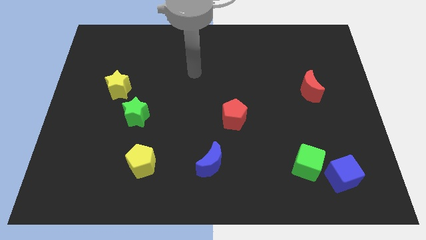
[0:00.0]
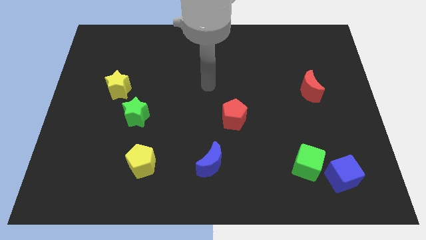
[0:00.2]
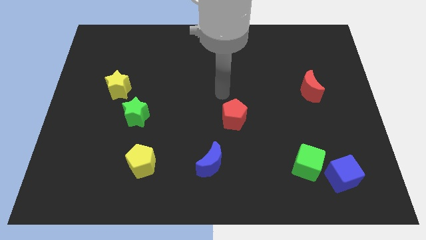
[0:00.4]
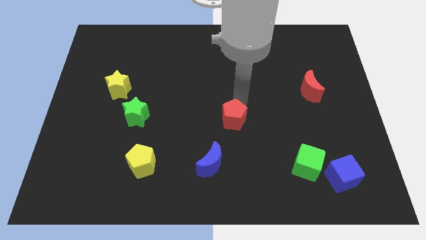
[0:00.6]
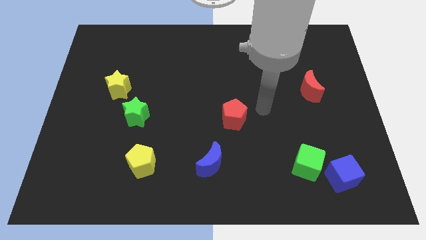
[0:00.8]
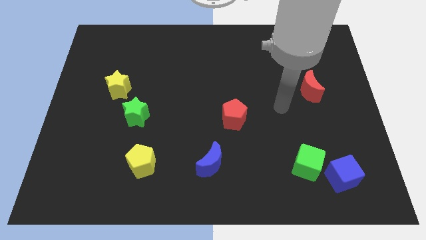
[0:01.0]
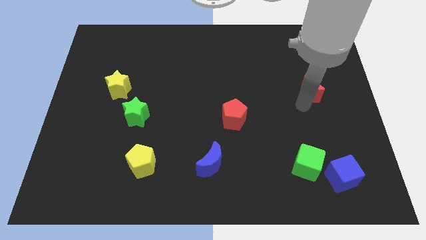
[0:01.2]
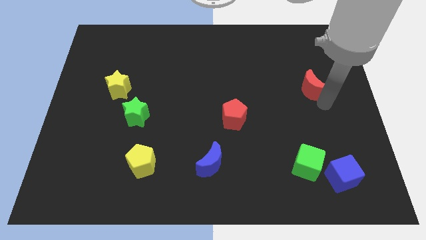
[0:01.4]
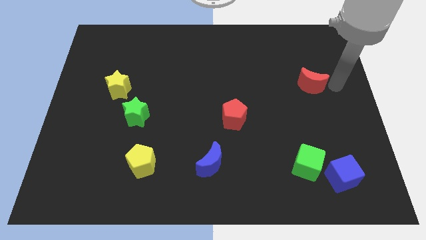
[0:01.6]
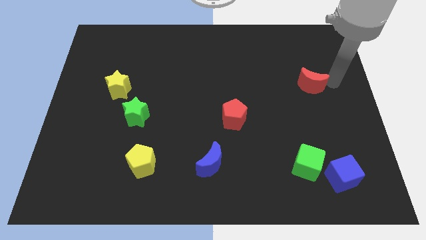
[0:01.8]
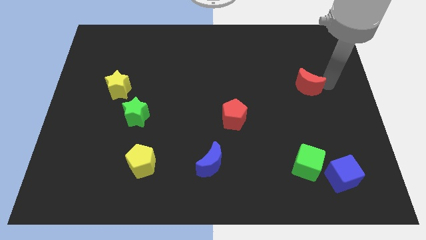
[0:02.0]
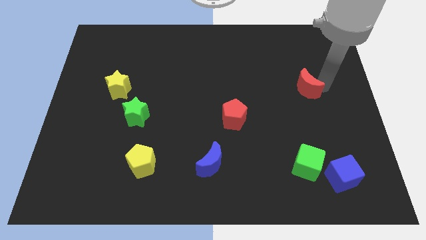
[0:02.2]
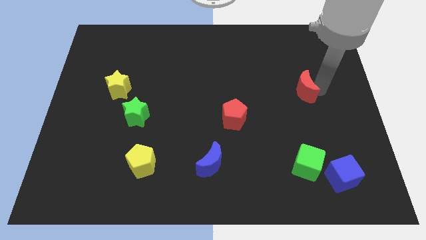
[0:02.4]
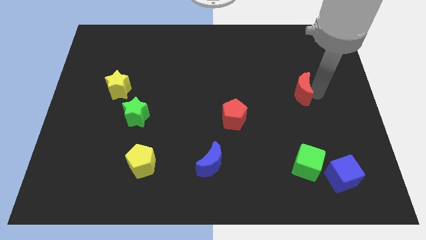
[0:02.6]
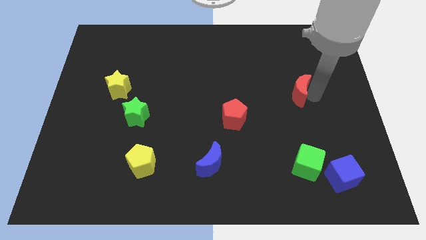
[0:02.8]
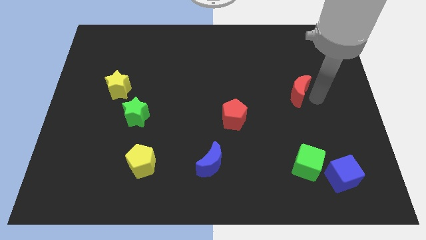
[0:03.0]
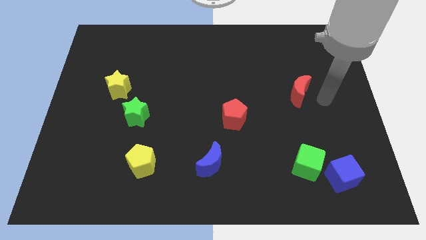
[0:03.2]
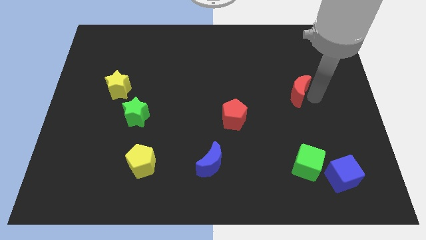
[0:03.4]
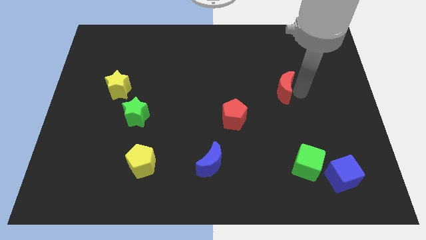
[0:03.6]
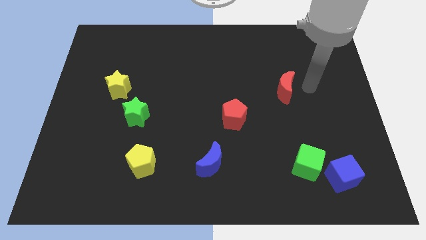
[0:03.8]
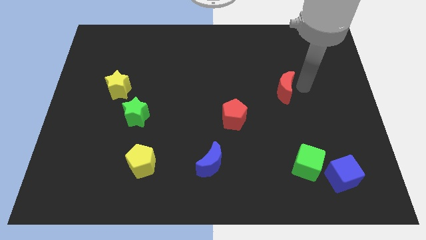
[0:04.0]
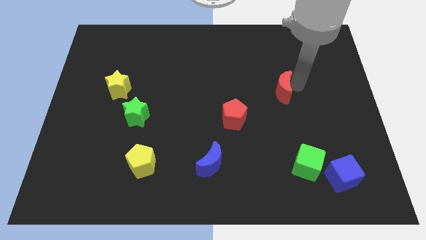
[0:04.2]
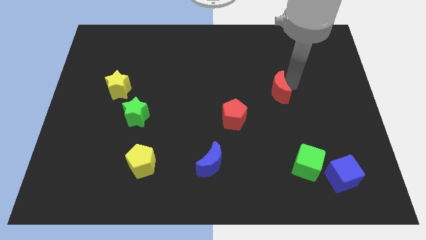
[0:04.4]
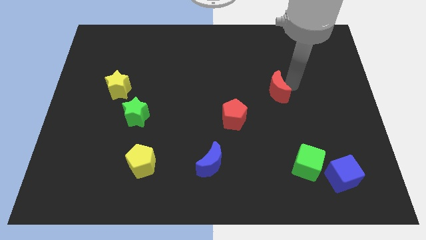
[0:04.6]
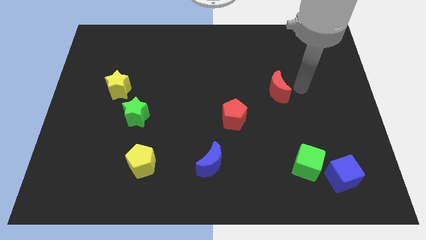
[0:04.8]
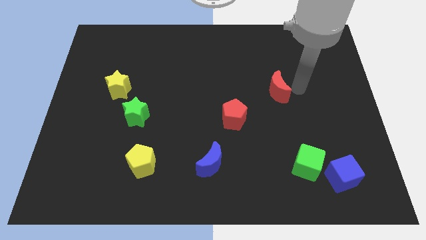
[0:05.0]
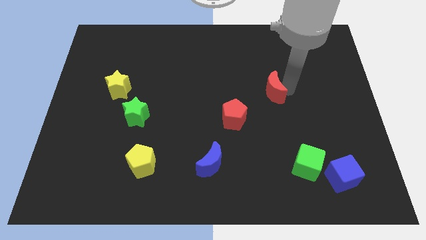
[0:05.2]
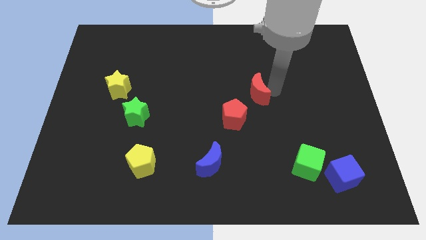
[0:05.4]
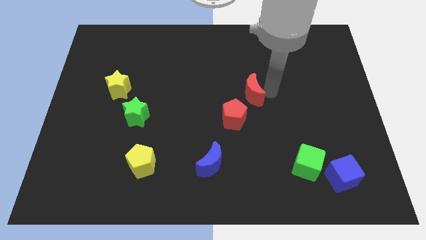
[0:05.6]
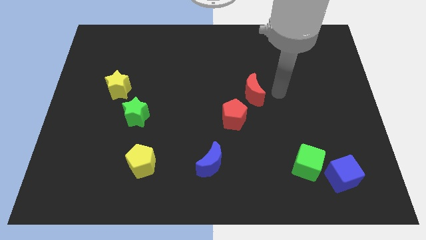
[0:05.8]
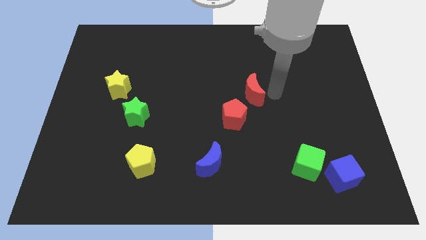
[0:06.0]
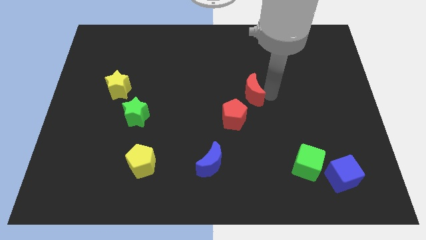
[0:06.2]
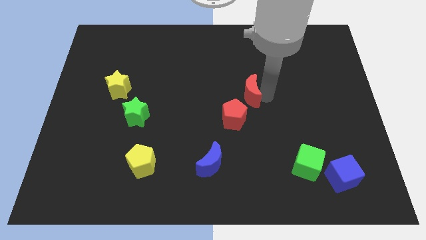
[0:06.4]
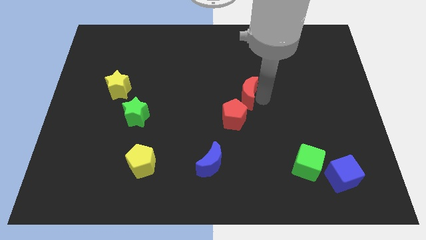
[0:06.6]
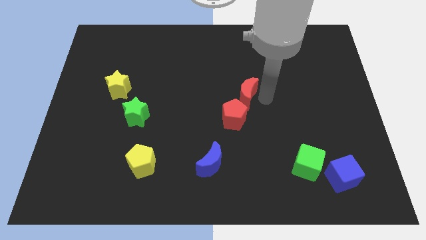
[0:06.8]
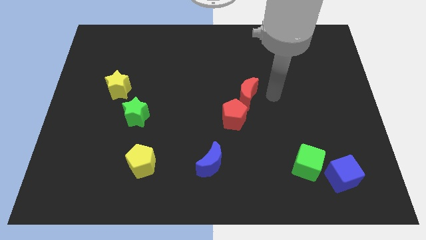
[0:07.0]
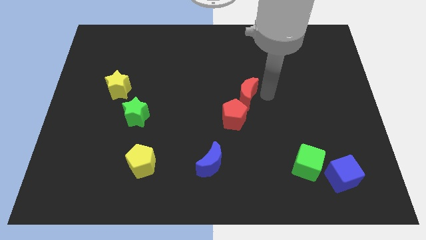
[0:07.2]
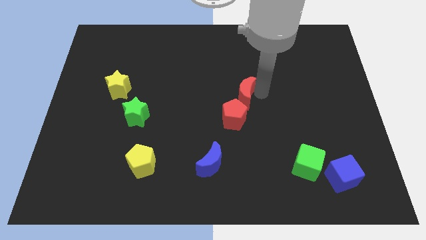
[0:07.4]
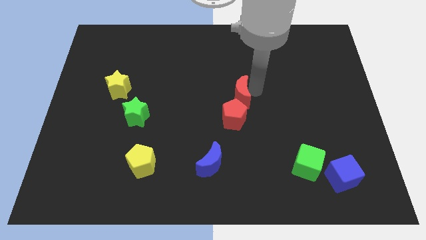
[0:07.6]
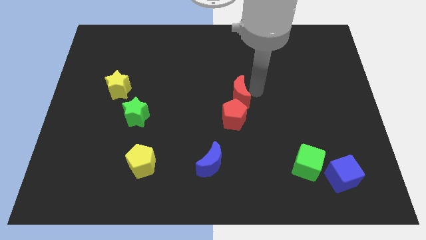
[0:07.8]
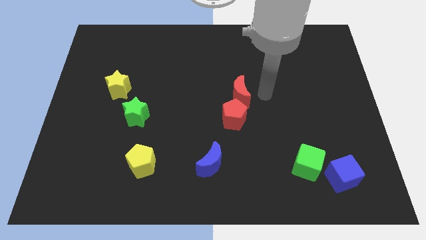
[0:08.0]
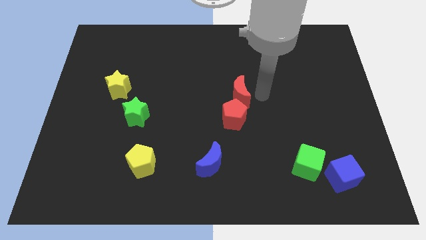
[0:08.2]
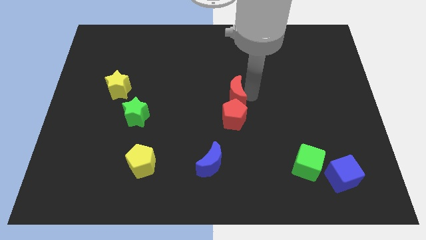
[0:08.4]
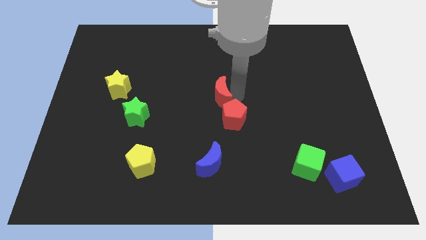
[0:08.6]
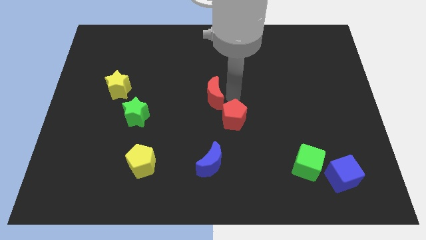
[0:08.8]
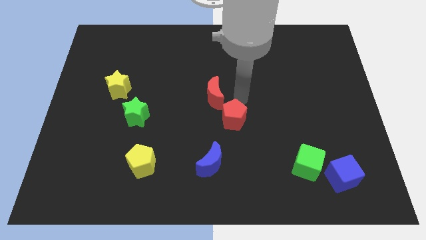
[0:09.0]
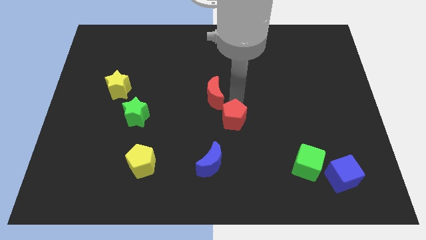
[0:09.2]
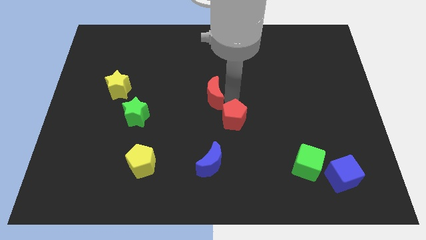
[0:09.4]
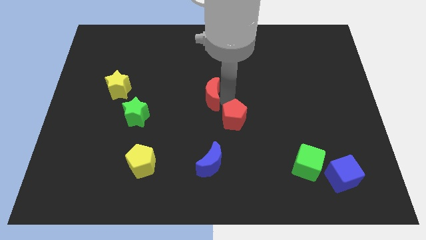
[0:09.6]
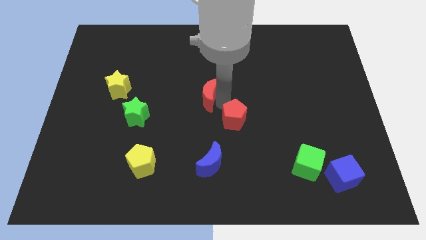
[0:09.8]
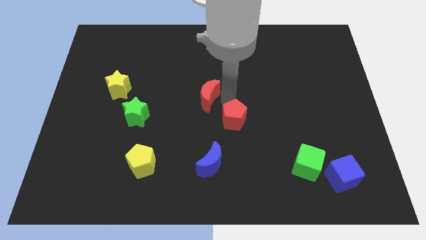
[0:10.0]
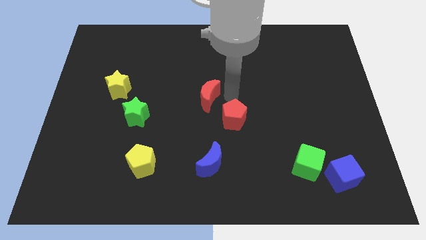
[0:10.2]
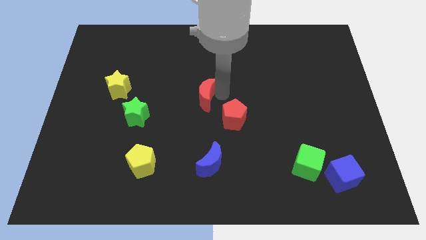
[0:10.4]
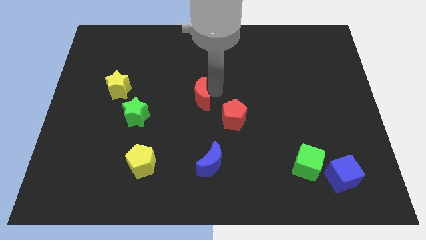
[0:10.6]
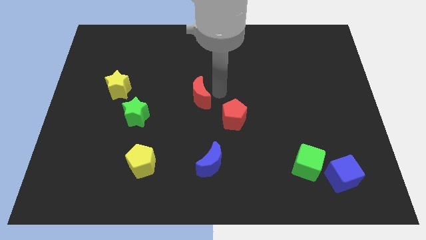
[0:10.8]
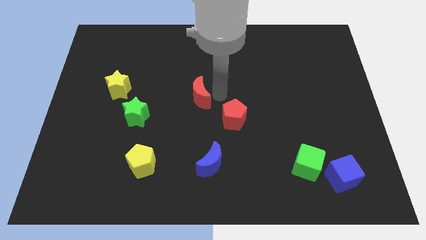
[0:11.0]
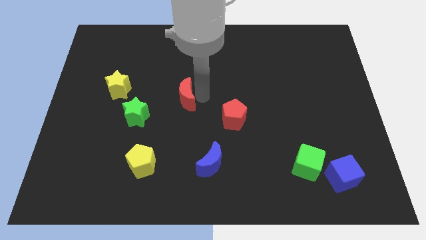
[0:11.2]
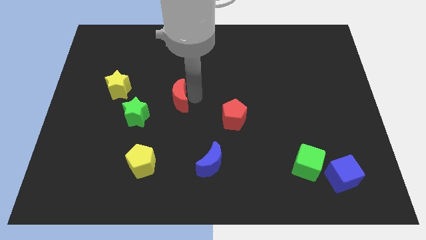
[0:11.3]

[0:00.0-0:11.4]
put the red moon to the top right of the green star

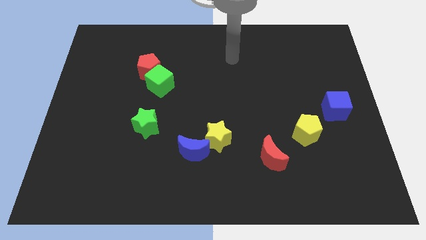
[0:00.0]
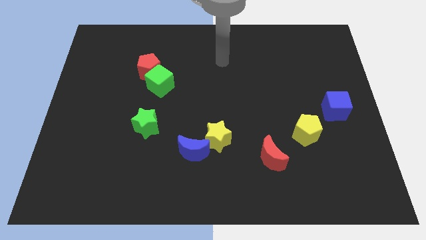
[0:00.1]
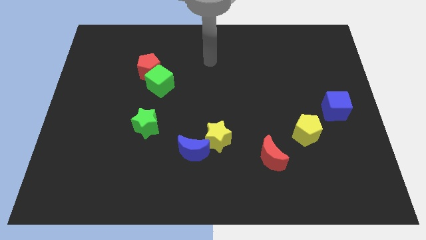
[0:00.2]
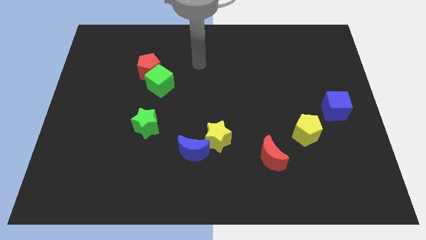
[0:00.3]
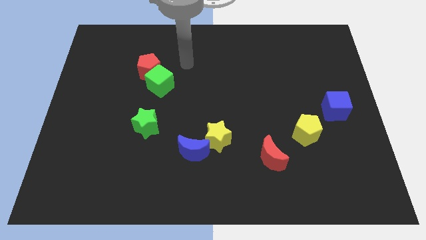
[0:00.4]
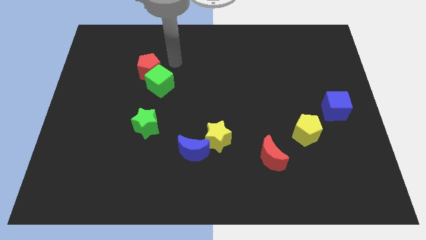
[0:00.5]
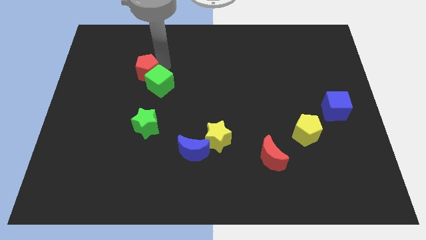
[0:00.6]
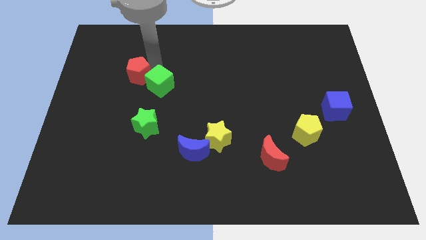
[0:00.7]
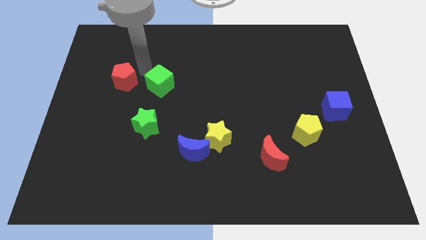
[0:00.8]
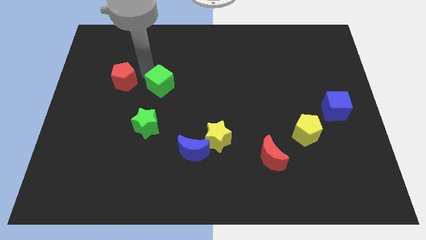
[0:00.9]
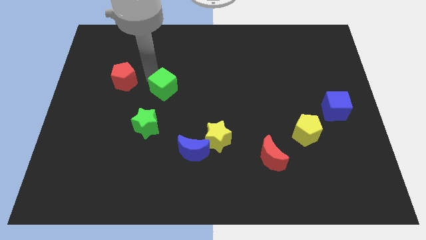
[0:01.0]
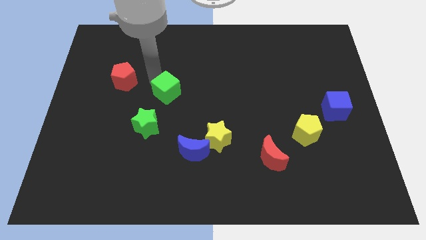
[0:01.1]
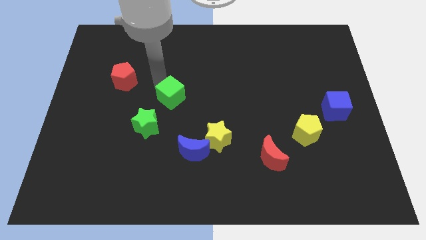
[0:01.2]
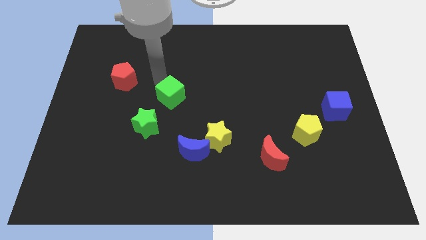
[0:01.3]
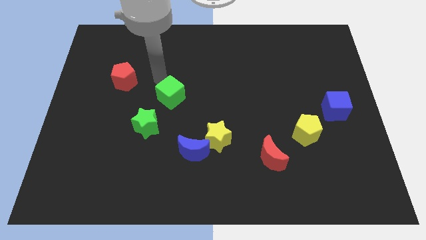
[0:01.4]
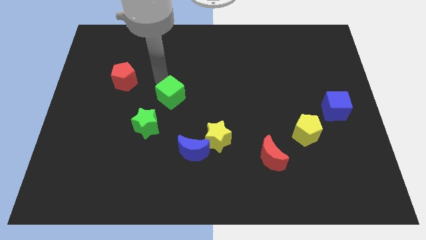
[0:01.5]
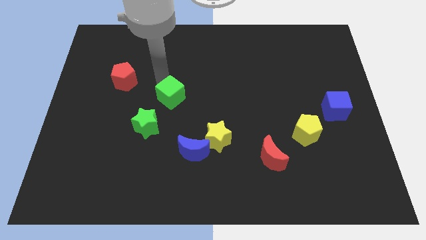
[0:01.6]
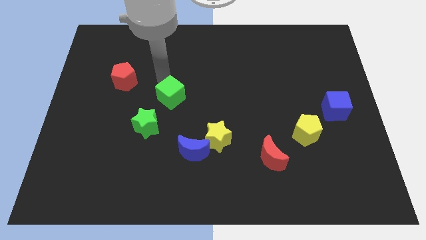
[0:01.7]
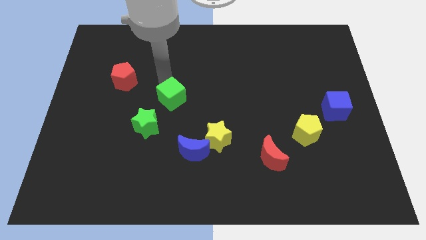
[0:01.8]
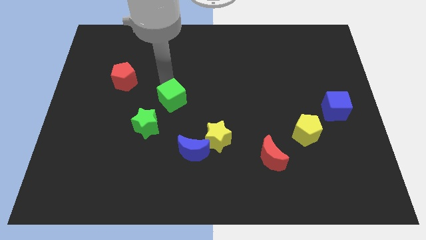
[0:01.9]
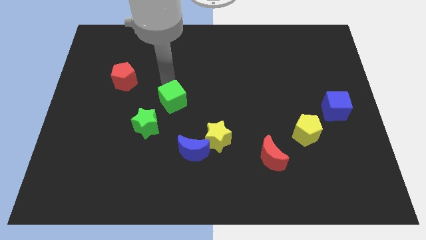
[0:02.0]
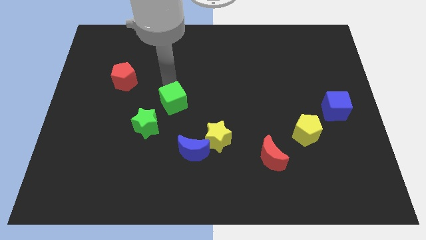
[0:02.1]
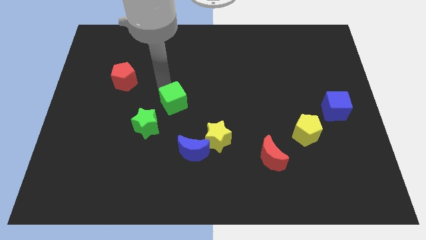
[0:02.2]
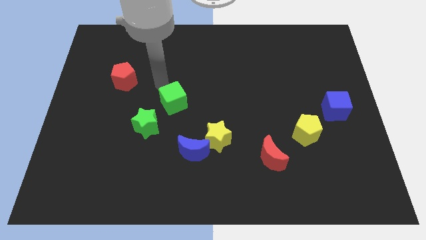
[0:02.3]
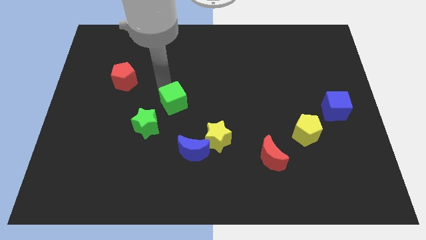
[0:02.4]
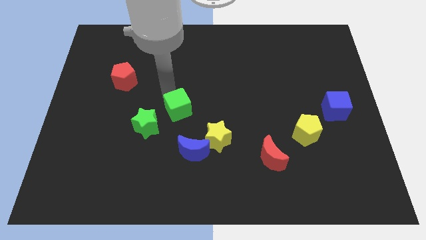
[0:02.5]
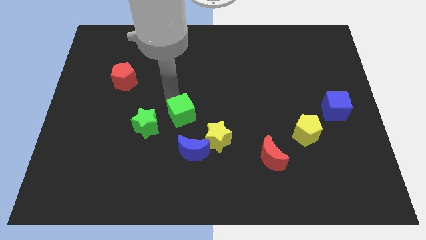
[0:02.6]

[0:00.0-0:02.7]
push the green cube to the right of the green star

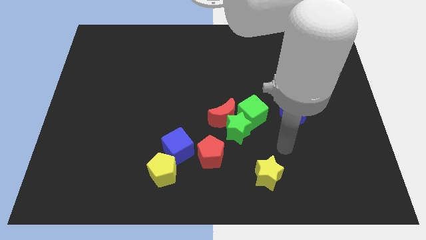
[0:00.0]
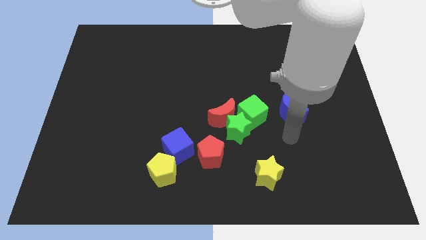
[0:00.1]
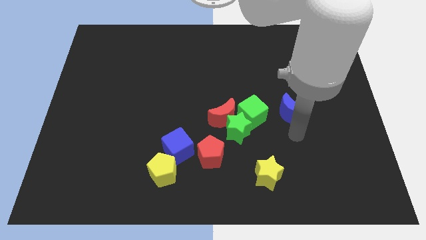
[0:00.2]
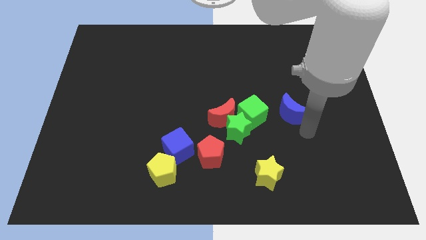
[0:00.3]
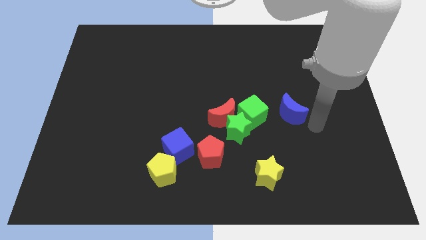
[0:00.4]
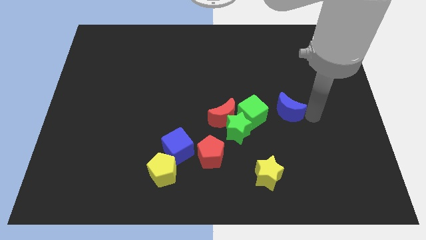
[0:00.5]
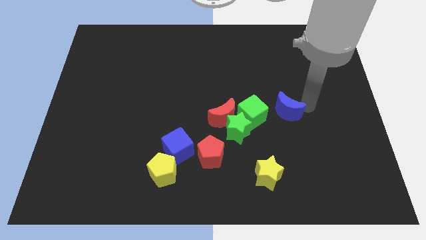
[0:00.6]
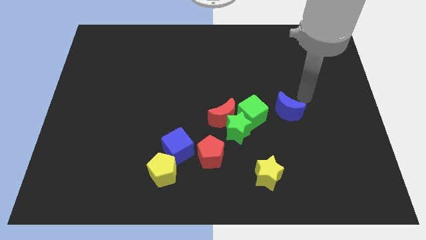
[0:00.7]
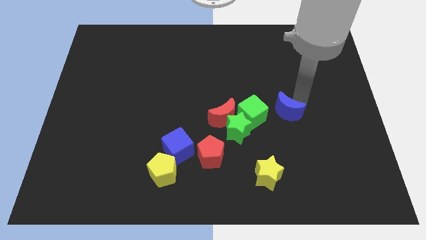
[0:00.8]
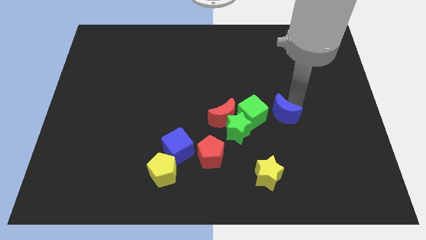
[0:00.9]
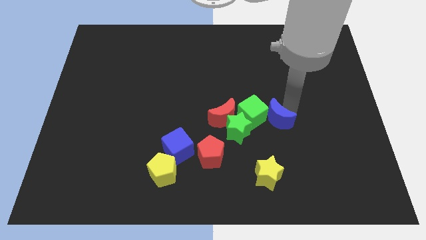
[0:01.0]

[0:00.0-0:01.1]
move the blue moon to the top side of the yellow star
